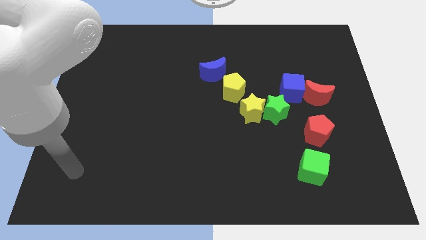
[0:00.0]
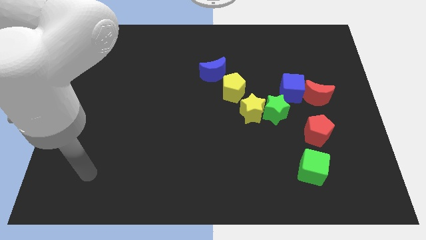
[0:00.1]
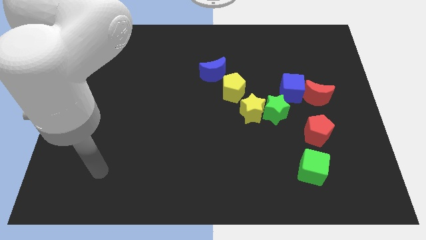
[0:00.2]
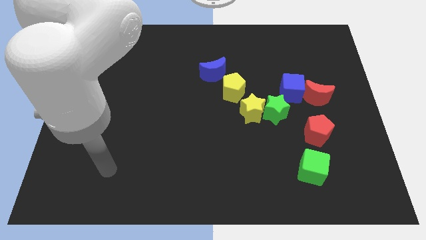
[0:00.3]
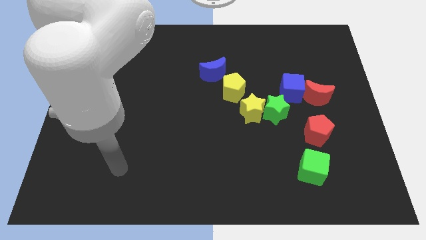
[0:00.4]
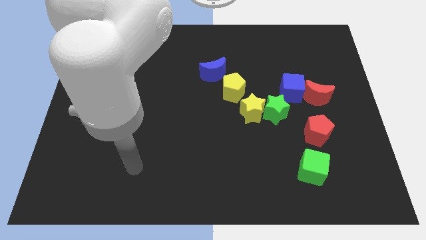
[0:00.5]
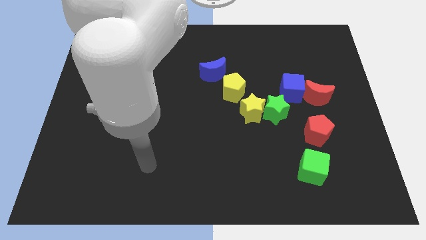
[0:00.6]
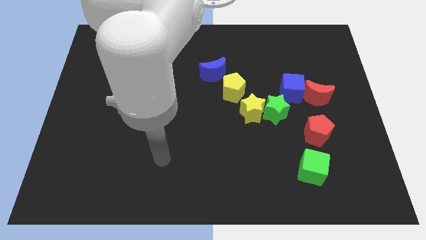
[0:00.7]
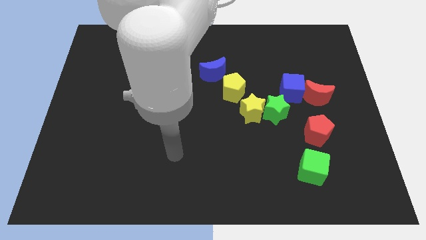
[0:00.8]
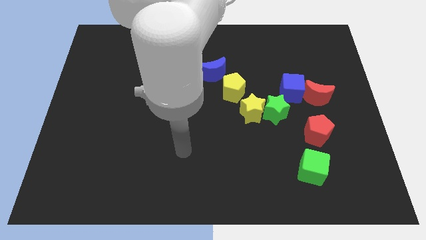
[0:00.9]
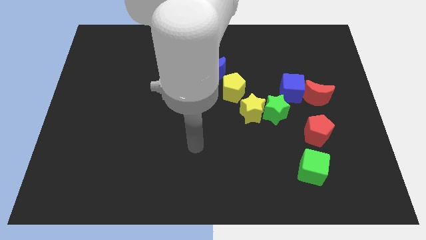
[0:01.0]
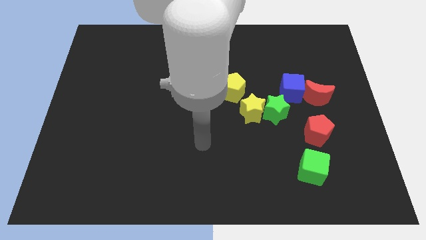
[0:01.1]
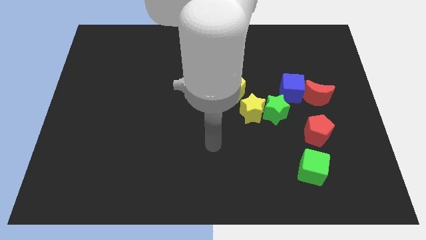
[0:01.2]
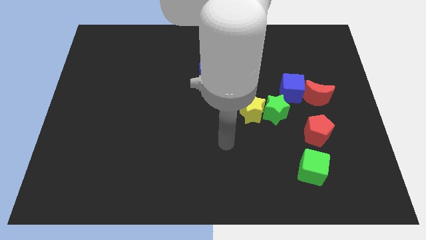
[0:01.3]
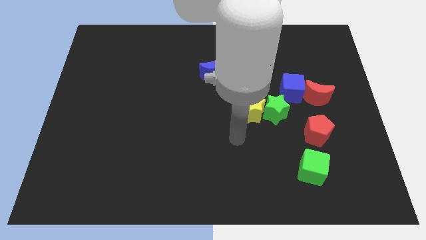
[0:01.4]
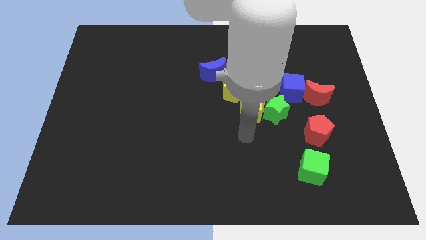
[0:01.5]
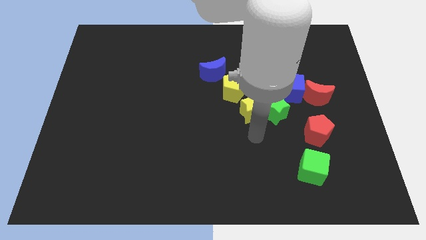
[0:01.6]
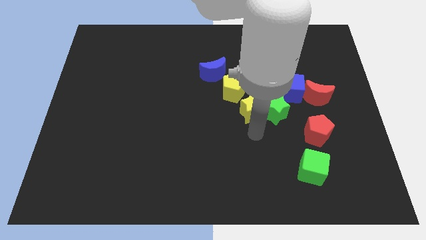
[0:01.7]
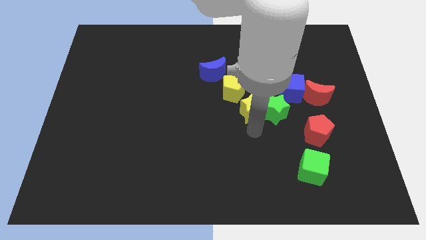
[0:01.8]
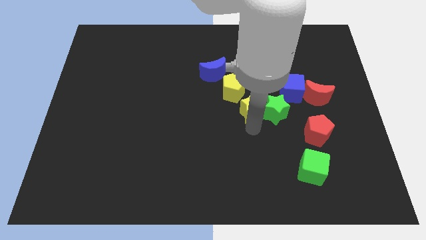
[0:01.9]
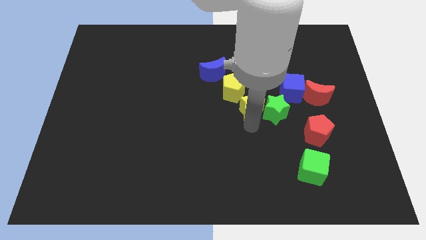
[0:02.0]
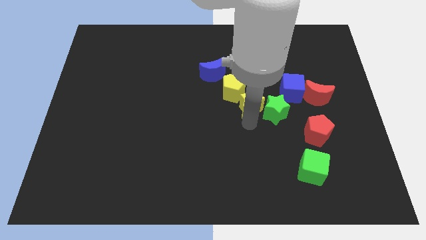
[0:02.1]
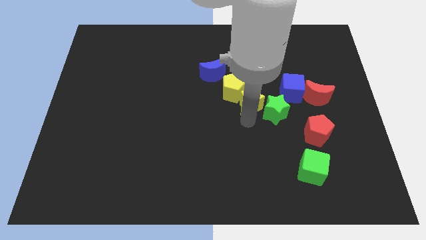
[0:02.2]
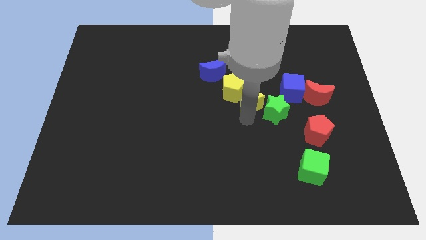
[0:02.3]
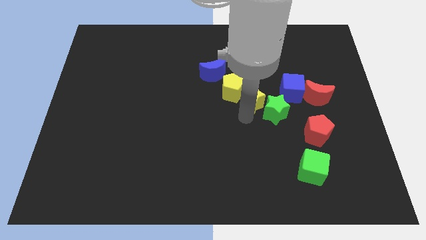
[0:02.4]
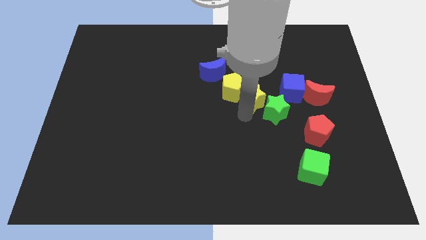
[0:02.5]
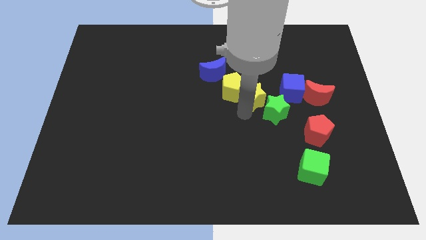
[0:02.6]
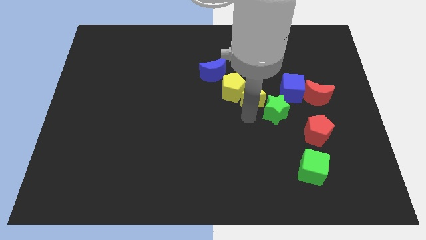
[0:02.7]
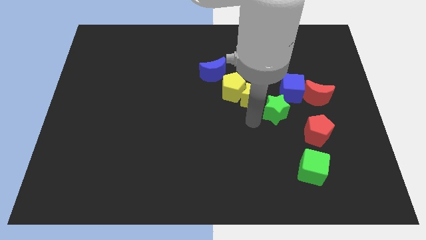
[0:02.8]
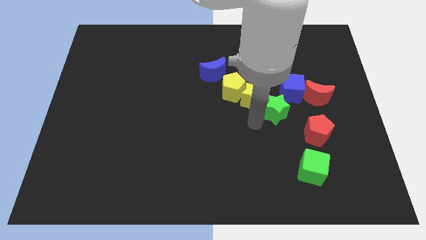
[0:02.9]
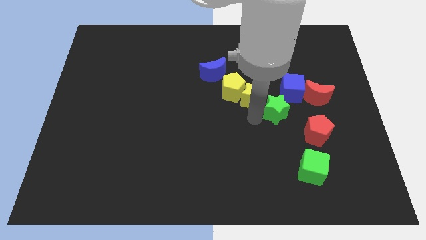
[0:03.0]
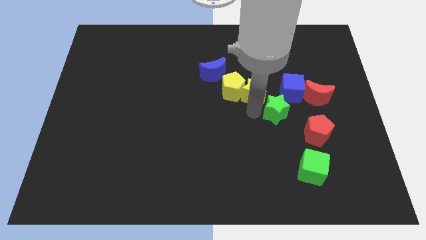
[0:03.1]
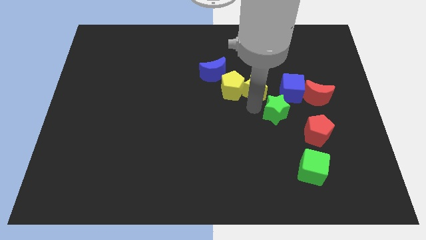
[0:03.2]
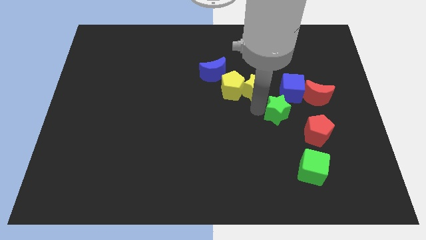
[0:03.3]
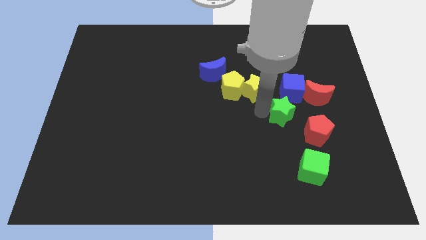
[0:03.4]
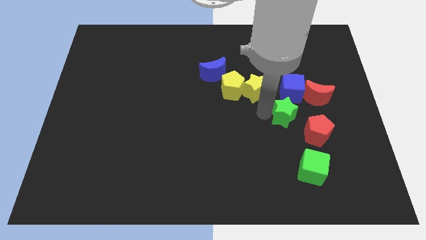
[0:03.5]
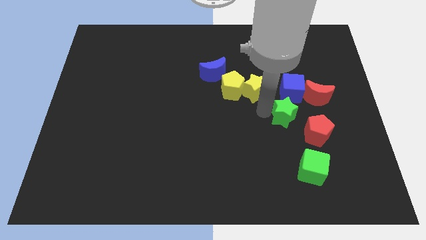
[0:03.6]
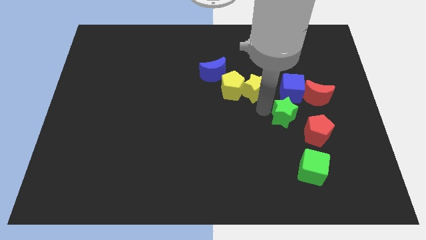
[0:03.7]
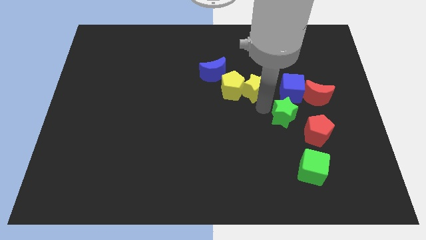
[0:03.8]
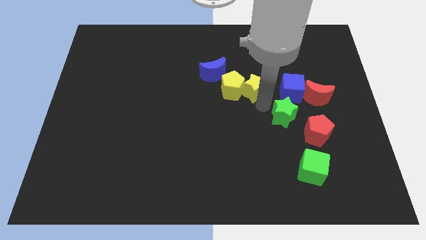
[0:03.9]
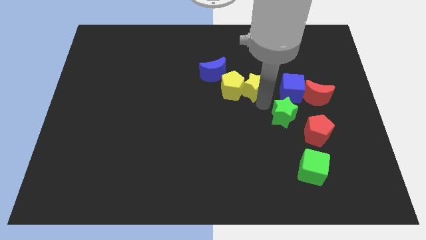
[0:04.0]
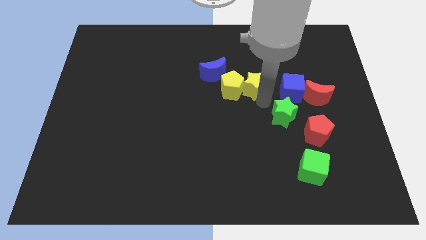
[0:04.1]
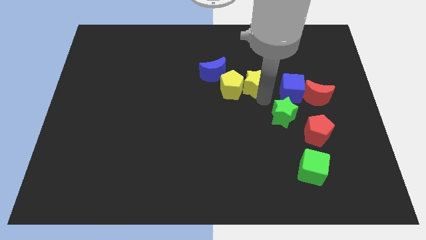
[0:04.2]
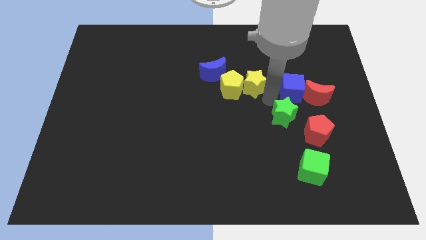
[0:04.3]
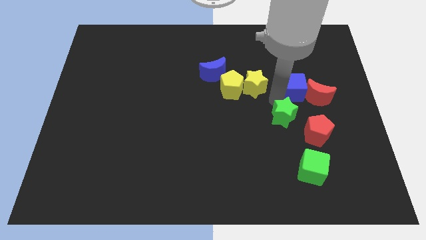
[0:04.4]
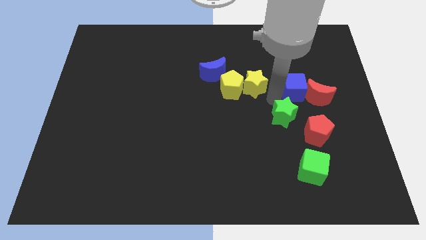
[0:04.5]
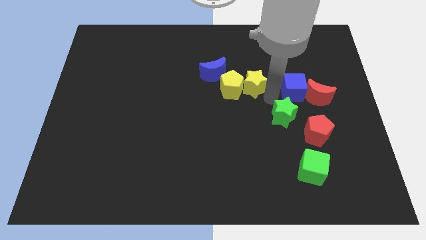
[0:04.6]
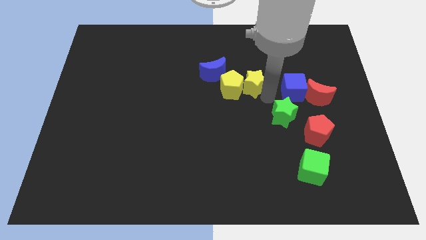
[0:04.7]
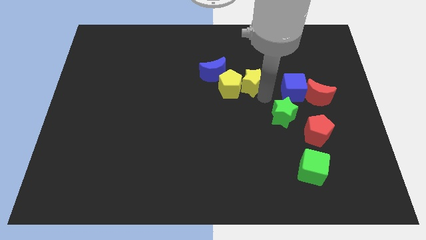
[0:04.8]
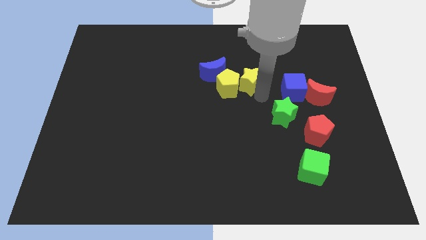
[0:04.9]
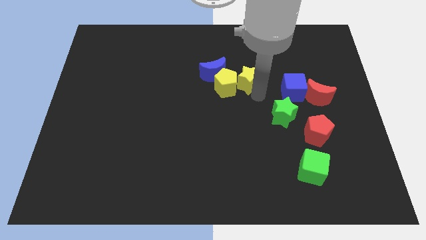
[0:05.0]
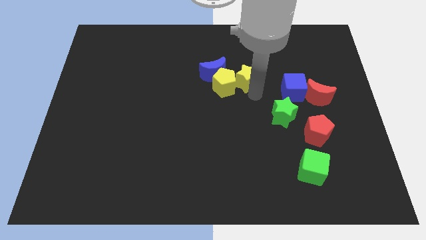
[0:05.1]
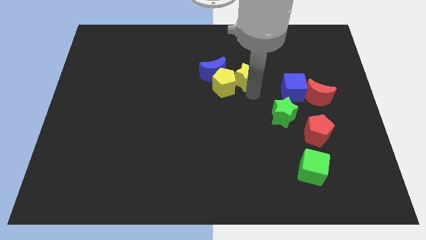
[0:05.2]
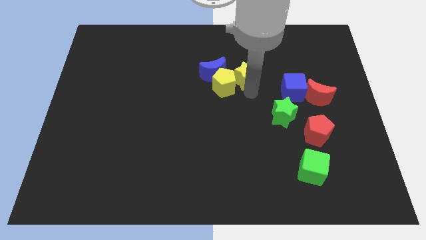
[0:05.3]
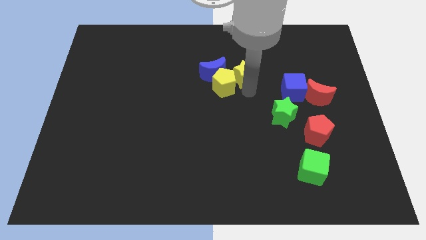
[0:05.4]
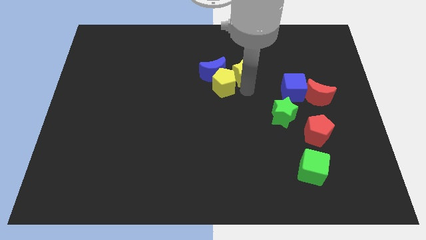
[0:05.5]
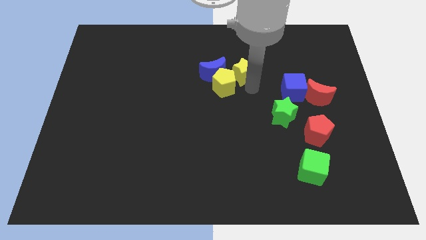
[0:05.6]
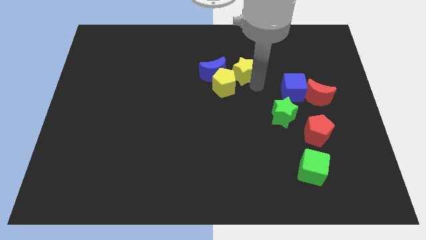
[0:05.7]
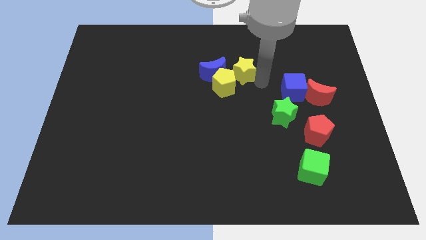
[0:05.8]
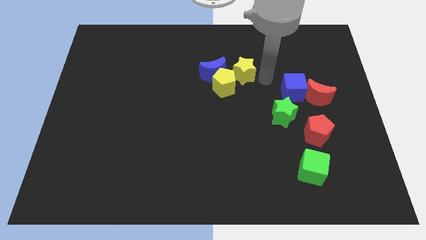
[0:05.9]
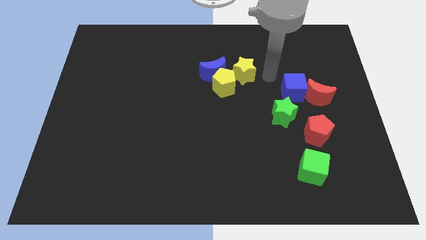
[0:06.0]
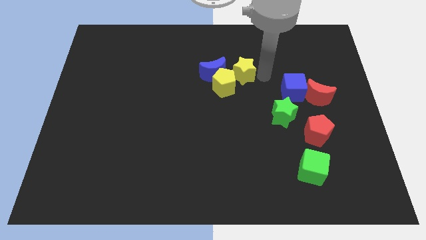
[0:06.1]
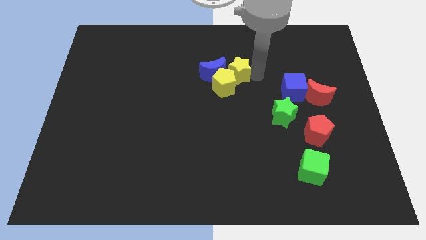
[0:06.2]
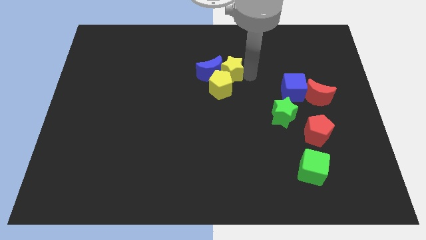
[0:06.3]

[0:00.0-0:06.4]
put the yellow star close to the blue moon

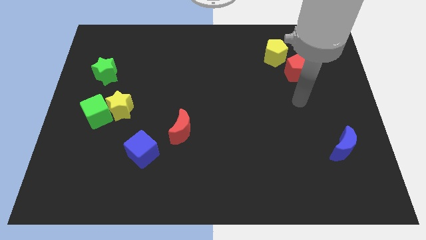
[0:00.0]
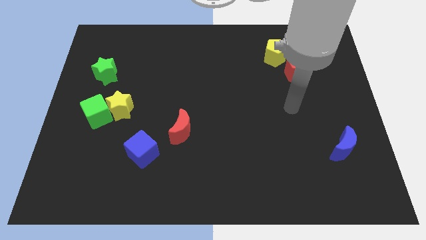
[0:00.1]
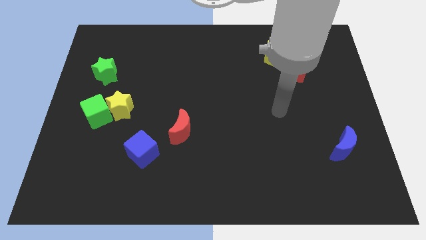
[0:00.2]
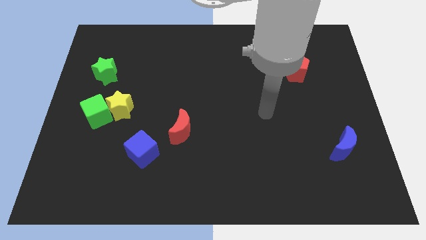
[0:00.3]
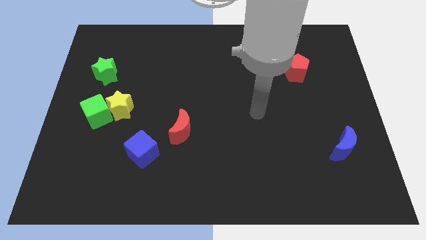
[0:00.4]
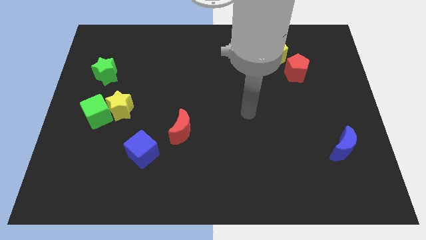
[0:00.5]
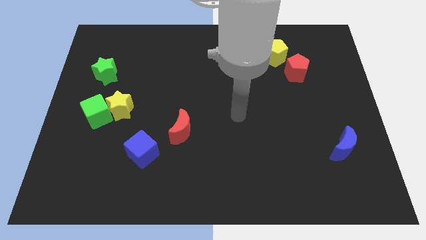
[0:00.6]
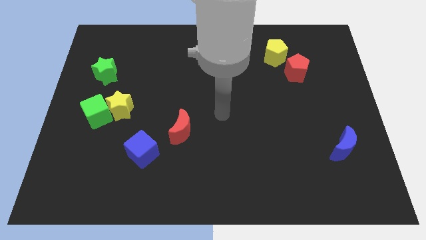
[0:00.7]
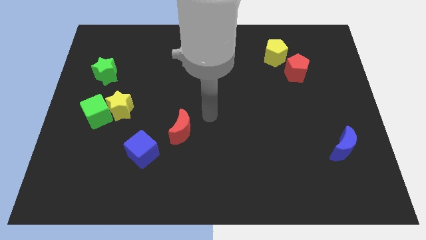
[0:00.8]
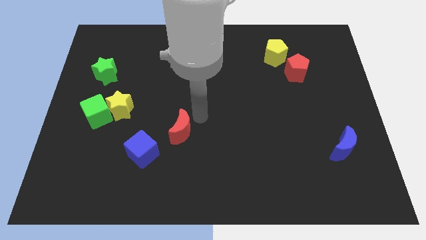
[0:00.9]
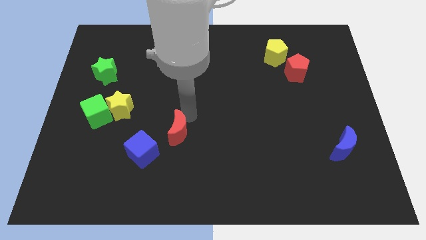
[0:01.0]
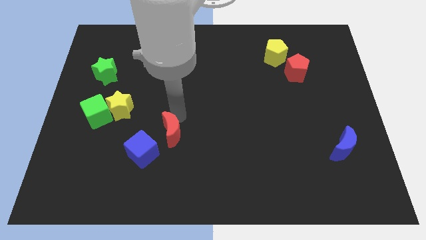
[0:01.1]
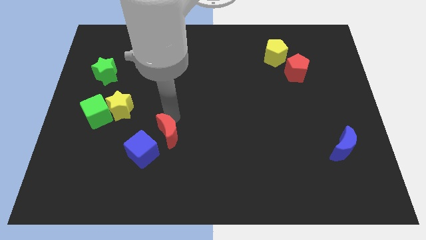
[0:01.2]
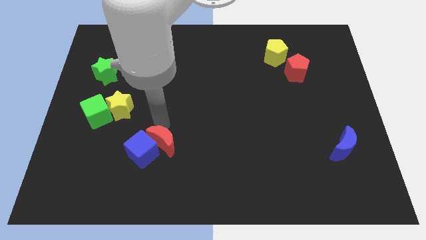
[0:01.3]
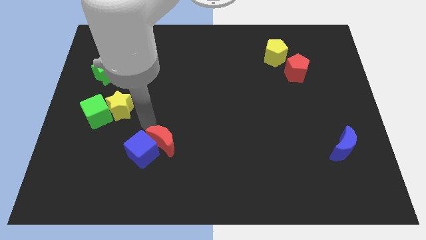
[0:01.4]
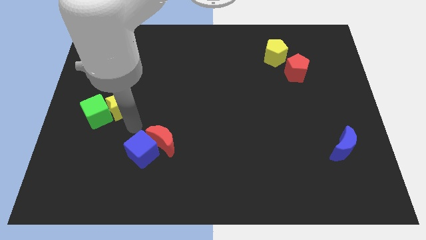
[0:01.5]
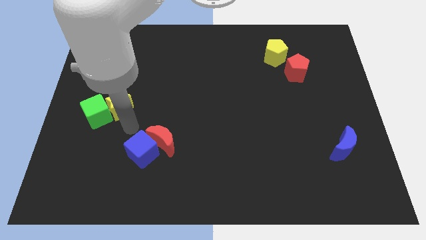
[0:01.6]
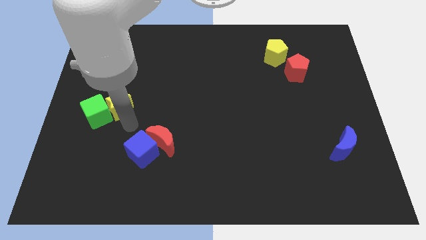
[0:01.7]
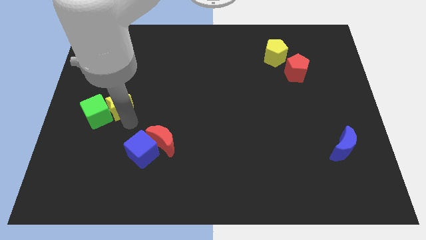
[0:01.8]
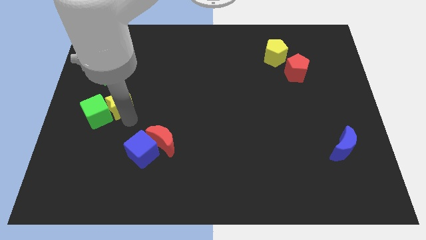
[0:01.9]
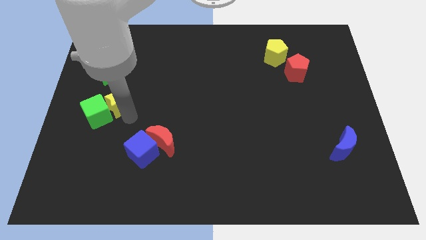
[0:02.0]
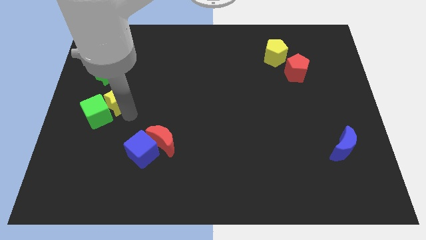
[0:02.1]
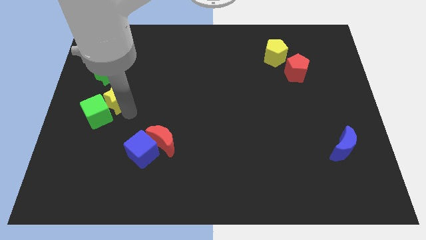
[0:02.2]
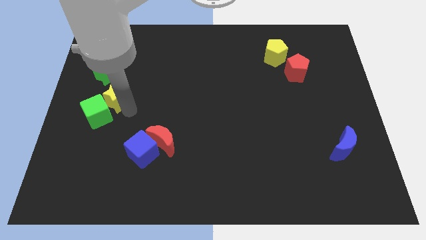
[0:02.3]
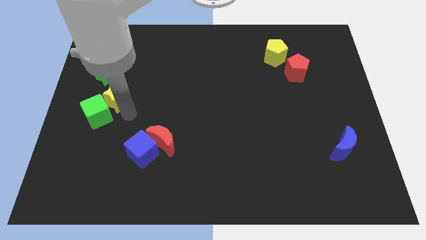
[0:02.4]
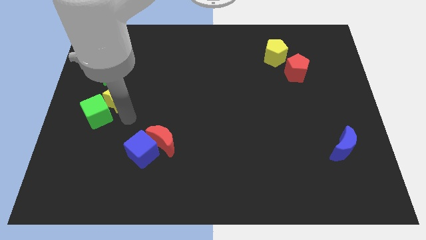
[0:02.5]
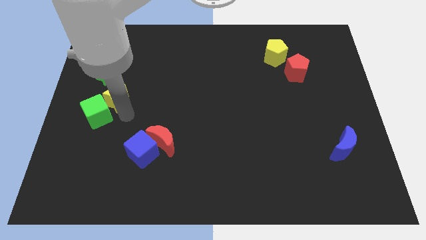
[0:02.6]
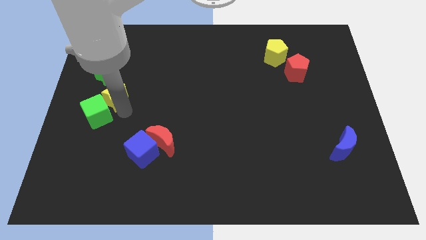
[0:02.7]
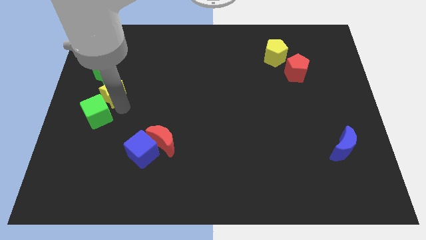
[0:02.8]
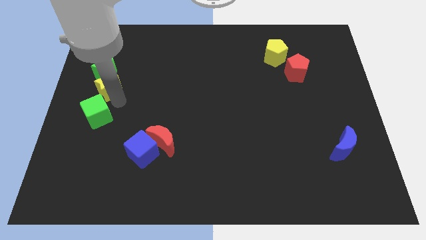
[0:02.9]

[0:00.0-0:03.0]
slide the yellow star to the green star
